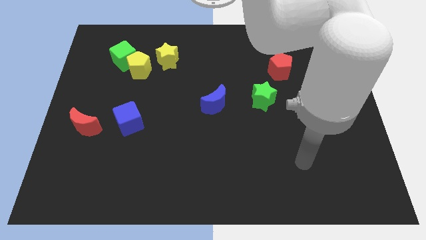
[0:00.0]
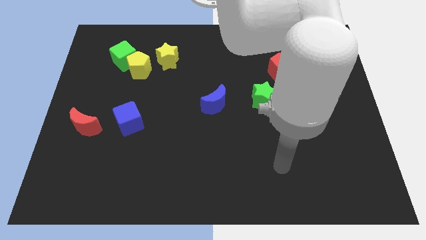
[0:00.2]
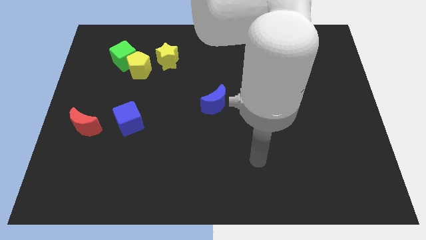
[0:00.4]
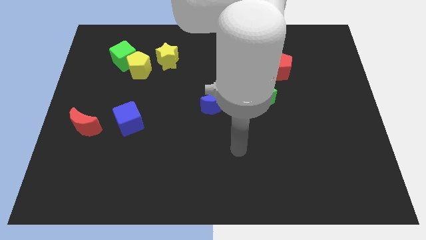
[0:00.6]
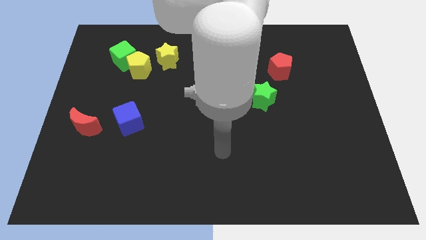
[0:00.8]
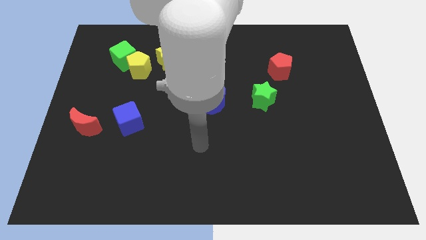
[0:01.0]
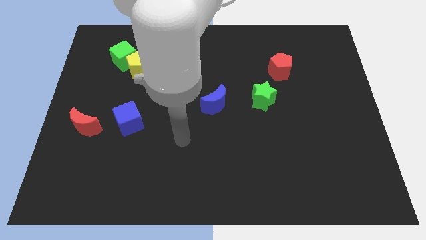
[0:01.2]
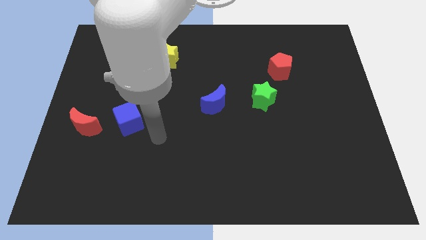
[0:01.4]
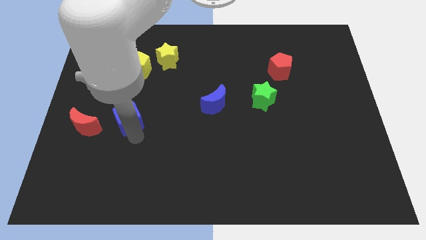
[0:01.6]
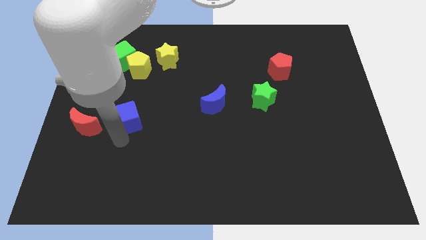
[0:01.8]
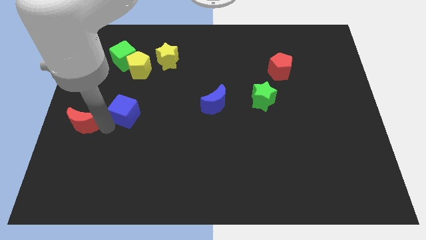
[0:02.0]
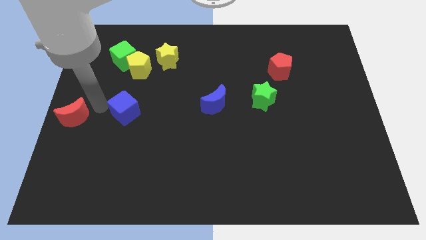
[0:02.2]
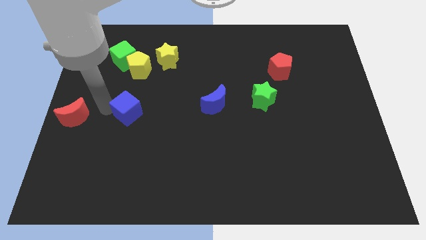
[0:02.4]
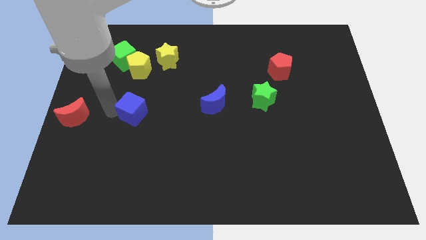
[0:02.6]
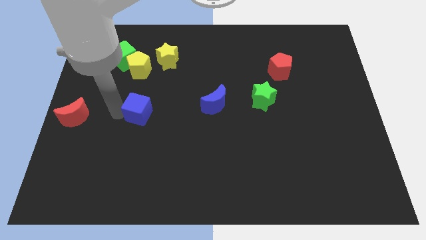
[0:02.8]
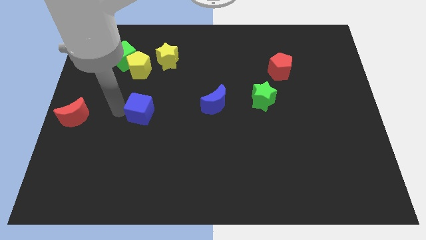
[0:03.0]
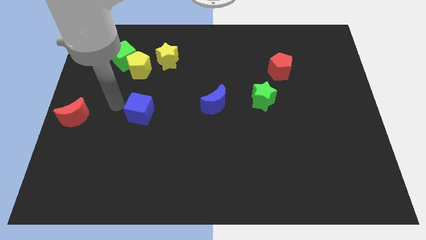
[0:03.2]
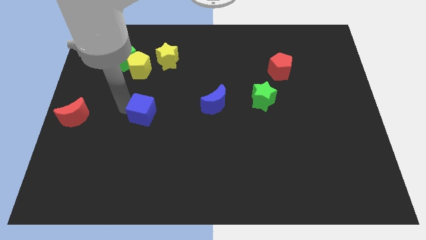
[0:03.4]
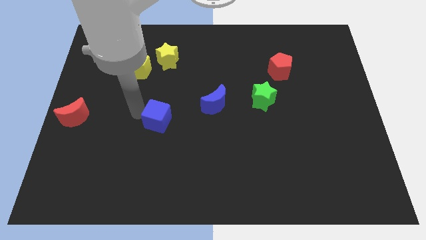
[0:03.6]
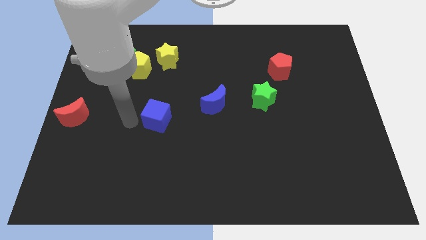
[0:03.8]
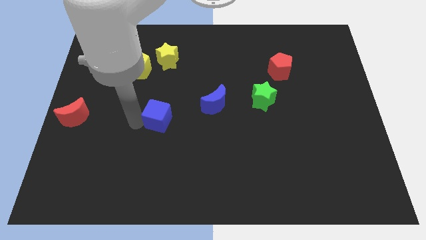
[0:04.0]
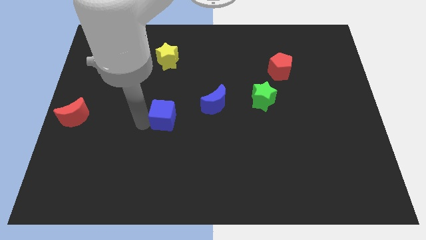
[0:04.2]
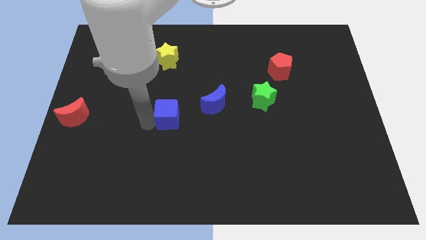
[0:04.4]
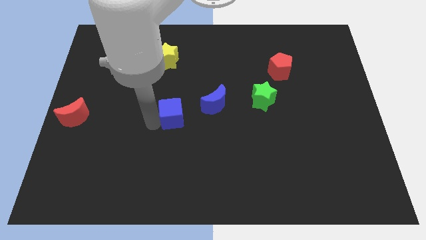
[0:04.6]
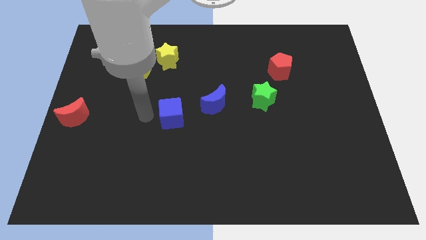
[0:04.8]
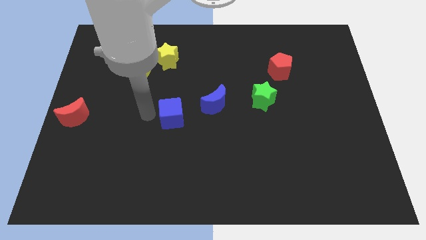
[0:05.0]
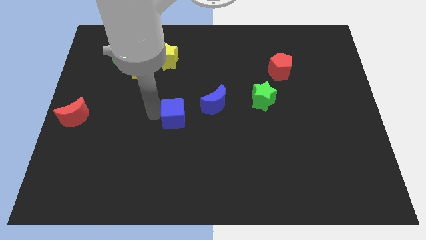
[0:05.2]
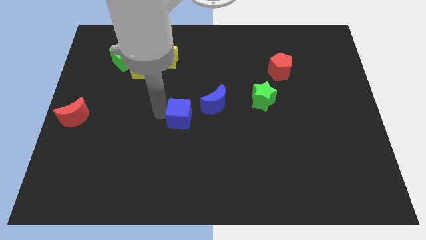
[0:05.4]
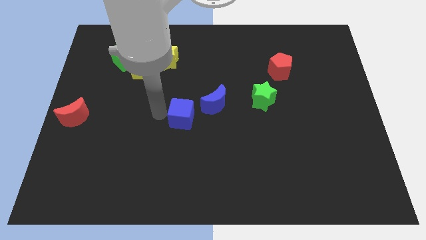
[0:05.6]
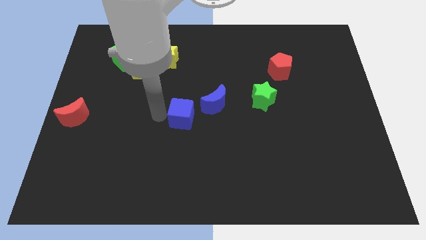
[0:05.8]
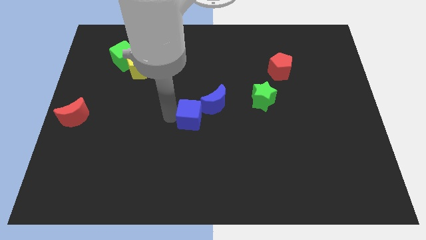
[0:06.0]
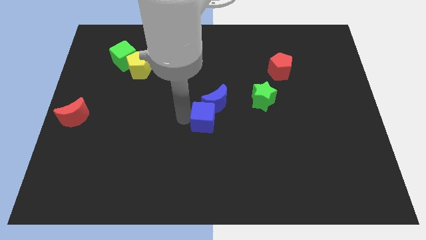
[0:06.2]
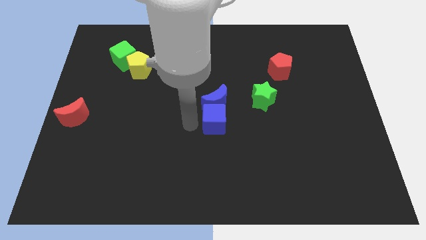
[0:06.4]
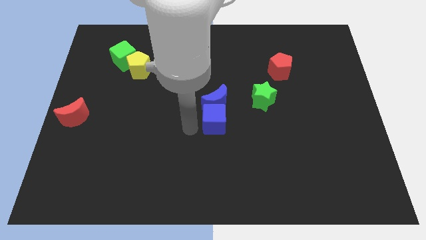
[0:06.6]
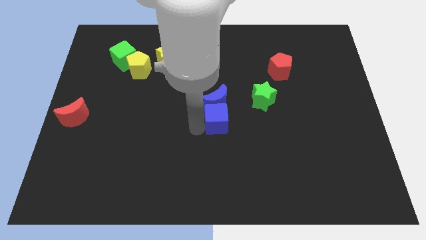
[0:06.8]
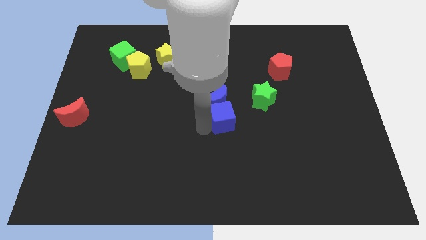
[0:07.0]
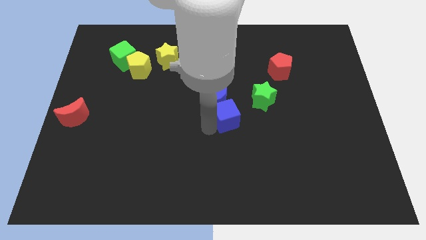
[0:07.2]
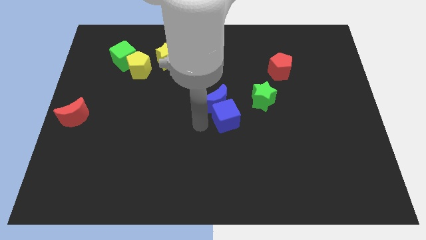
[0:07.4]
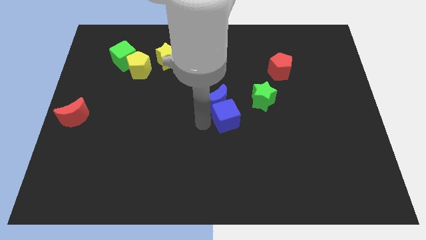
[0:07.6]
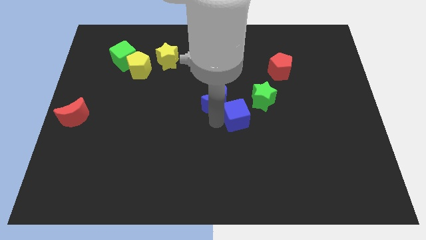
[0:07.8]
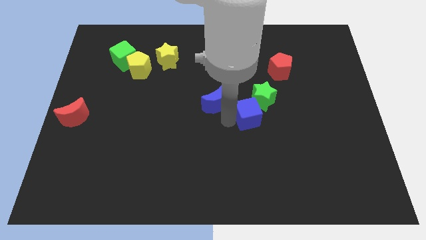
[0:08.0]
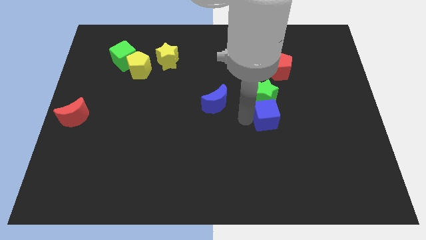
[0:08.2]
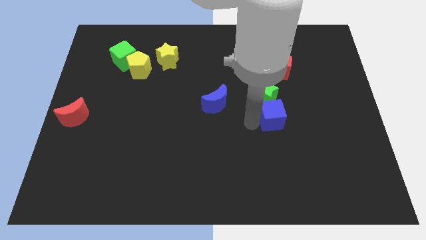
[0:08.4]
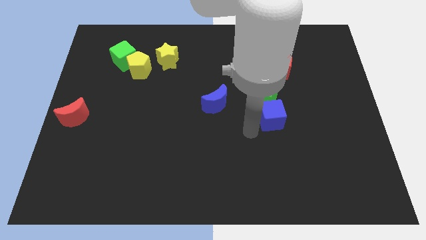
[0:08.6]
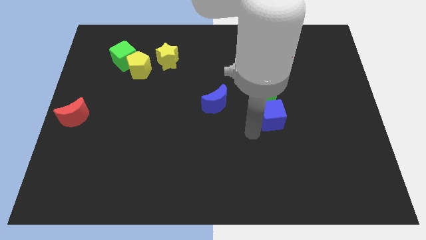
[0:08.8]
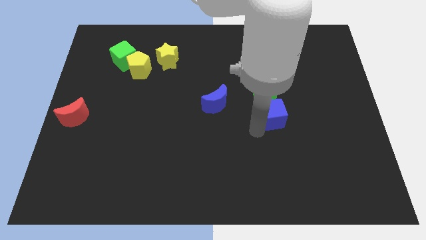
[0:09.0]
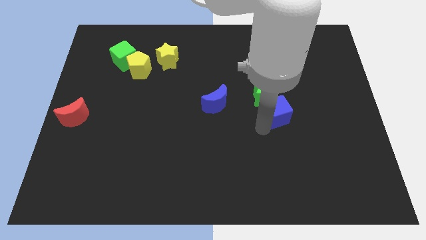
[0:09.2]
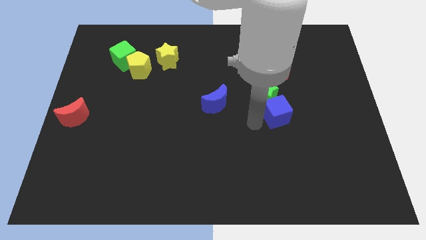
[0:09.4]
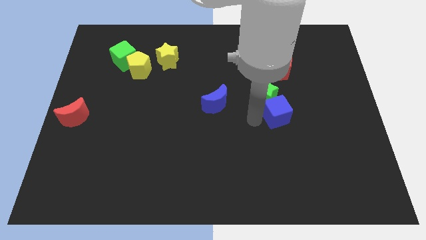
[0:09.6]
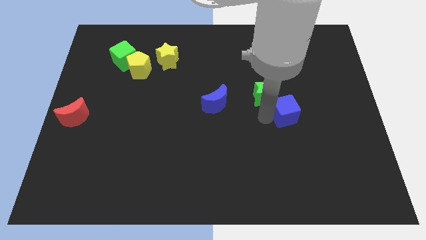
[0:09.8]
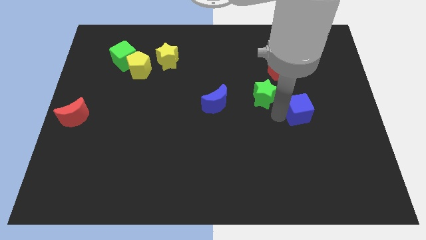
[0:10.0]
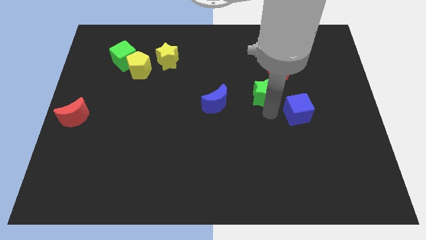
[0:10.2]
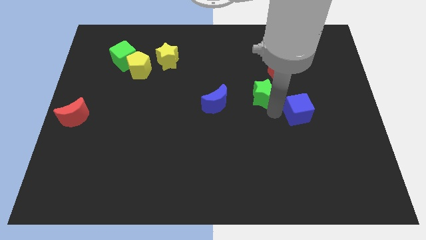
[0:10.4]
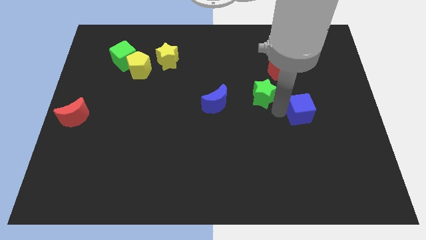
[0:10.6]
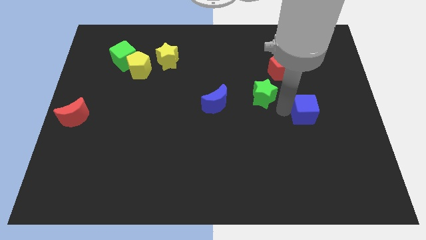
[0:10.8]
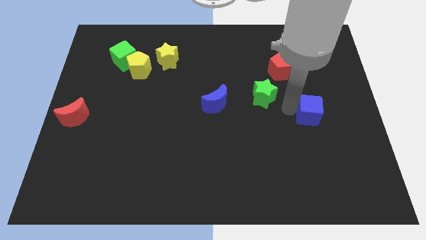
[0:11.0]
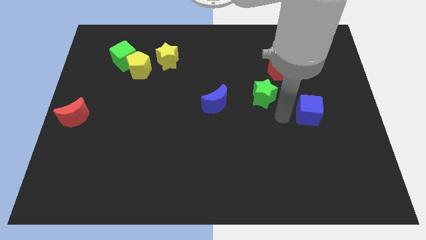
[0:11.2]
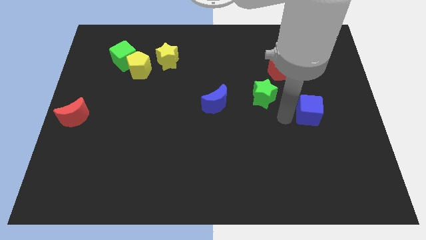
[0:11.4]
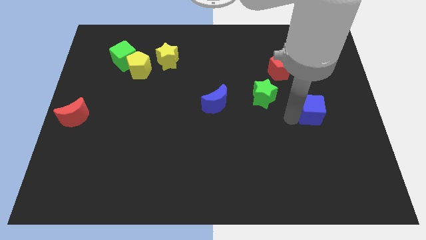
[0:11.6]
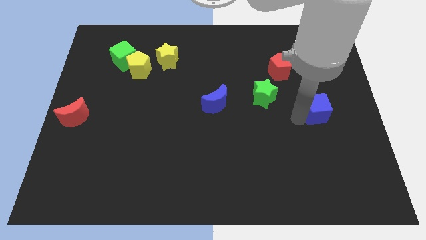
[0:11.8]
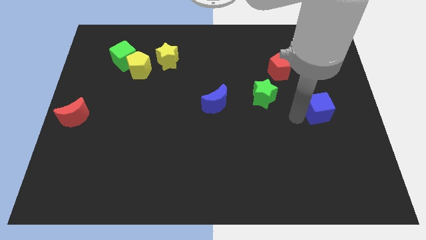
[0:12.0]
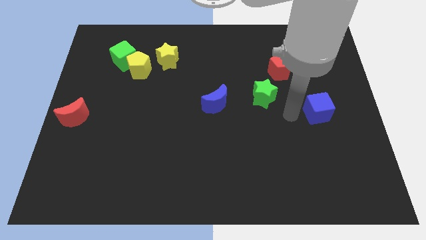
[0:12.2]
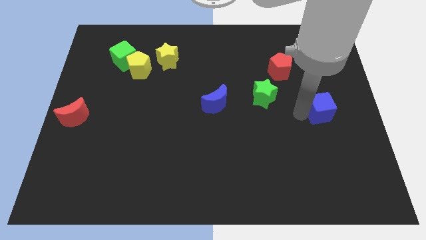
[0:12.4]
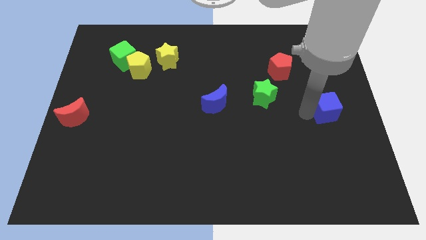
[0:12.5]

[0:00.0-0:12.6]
put the blue cube to the right side
